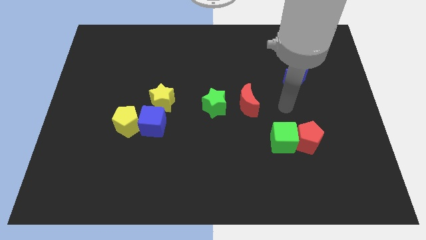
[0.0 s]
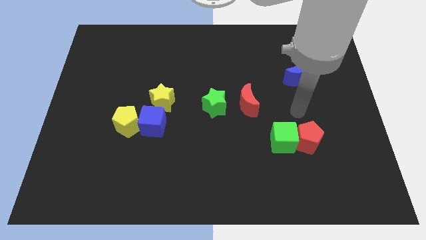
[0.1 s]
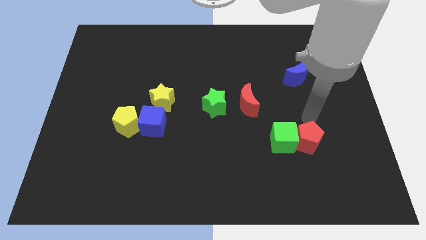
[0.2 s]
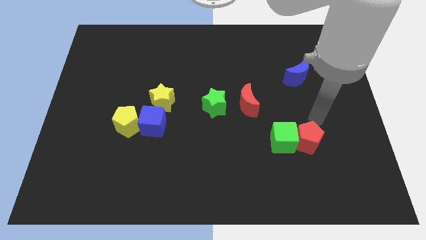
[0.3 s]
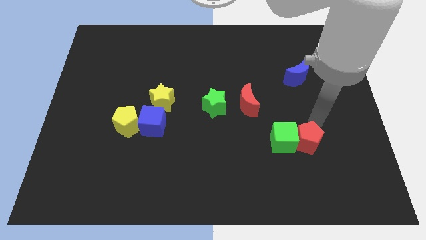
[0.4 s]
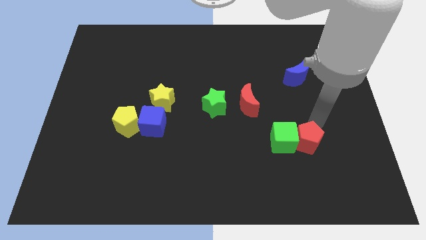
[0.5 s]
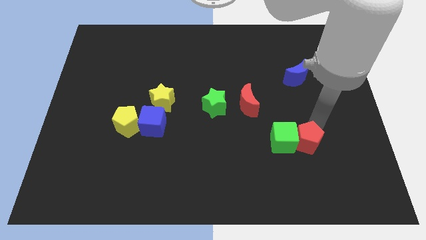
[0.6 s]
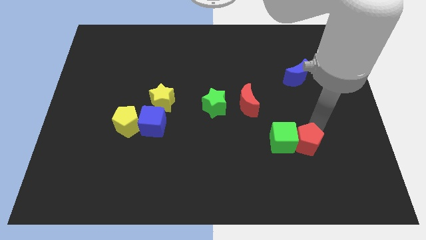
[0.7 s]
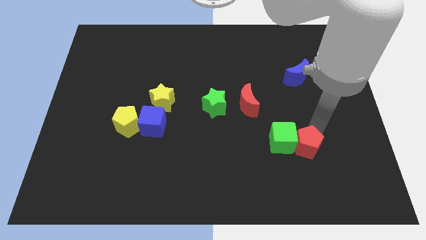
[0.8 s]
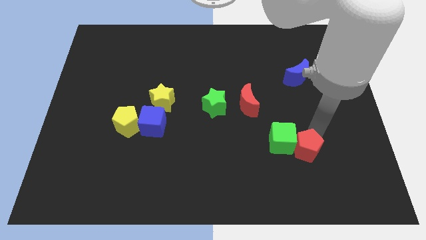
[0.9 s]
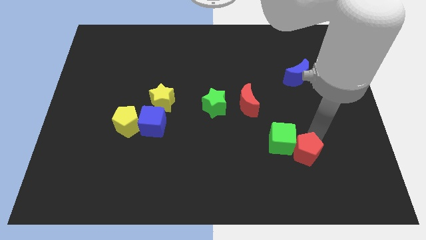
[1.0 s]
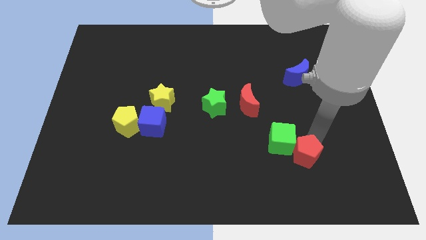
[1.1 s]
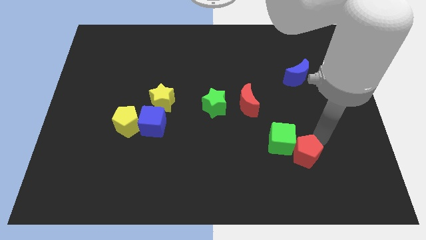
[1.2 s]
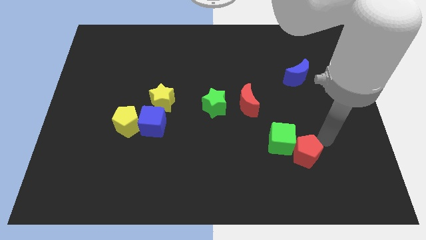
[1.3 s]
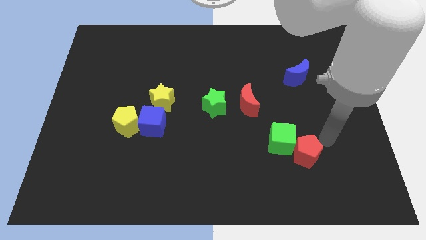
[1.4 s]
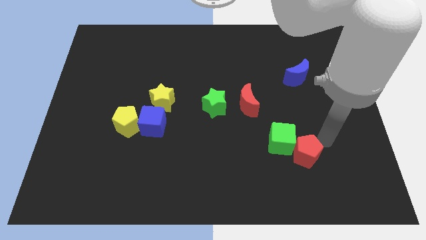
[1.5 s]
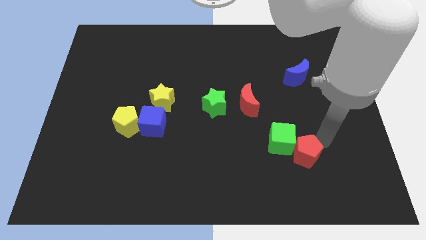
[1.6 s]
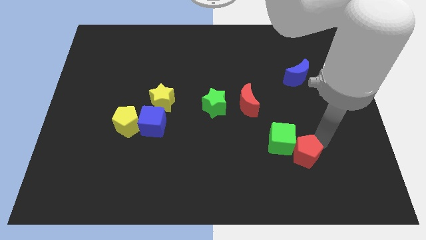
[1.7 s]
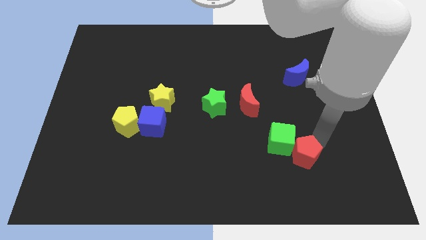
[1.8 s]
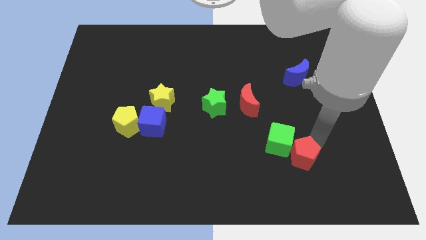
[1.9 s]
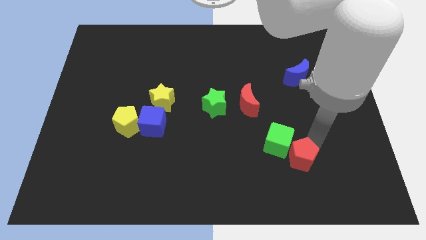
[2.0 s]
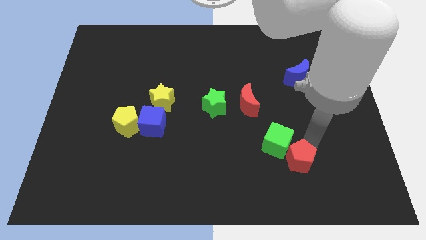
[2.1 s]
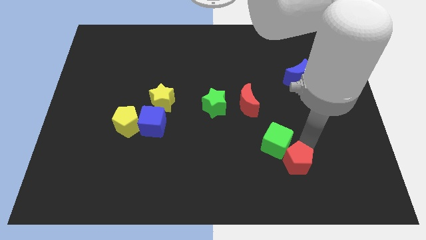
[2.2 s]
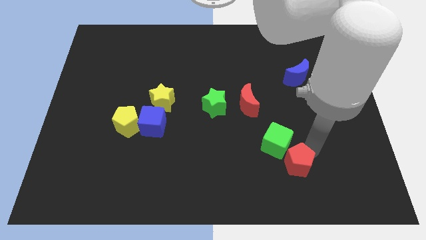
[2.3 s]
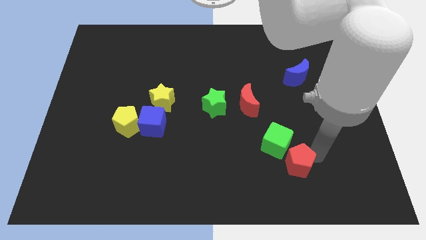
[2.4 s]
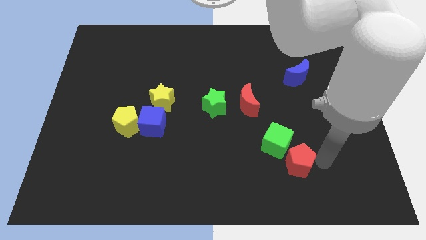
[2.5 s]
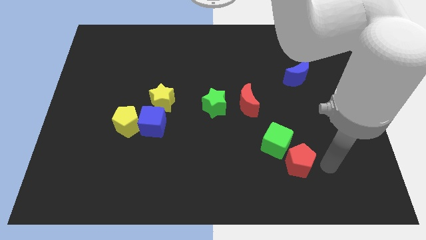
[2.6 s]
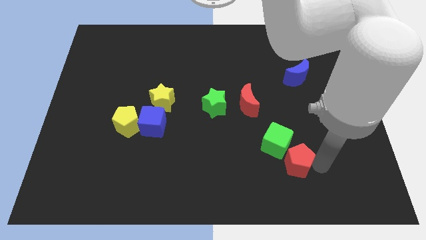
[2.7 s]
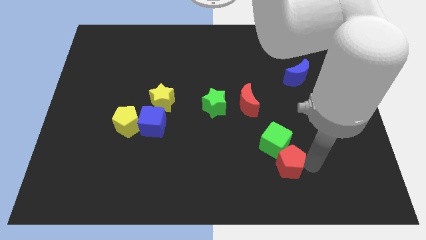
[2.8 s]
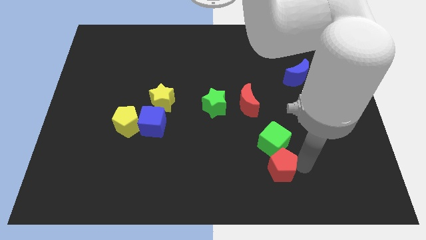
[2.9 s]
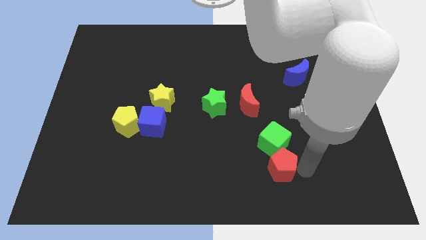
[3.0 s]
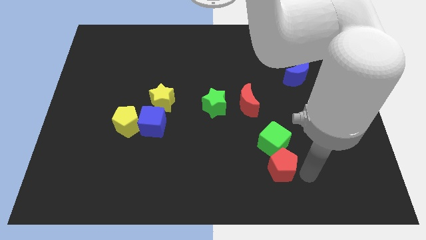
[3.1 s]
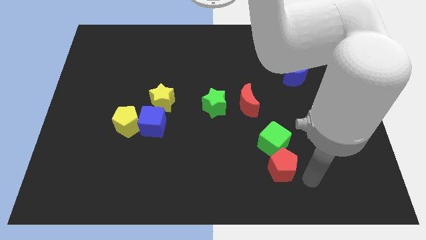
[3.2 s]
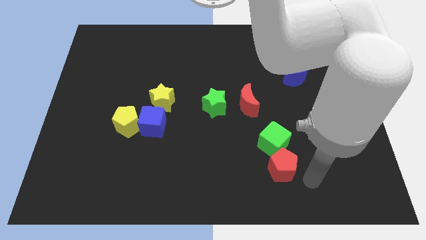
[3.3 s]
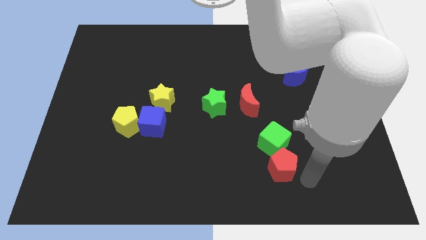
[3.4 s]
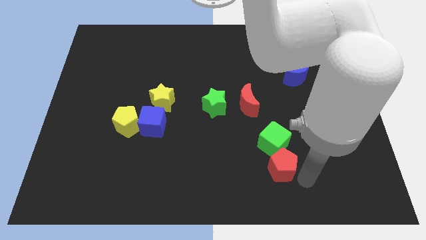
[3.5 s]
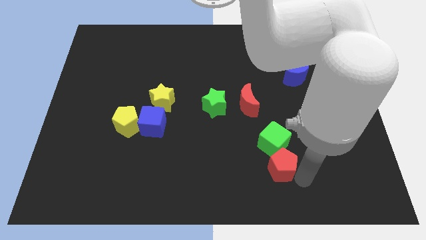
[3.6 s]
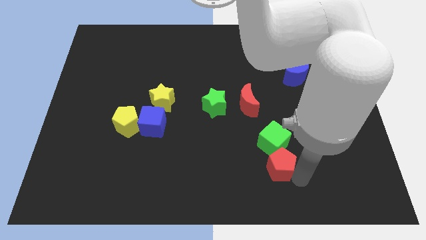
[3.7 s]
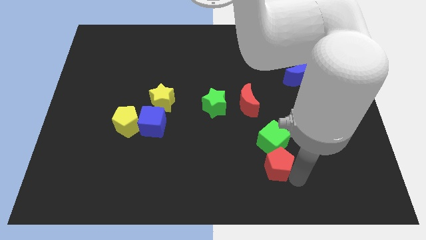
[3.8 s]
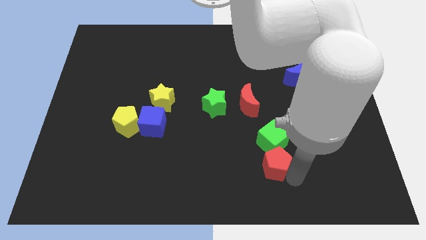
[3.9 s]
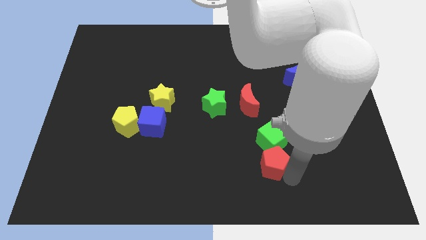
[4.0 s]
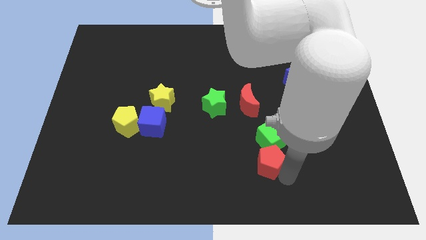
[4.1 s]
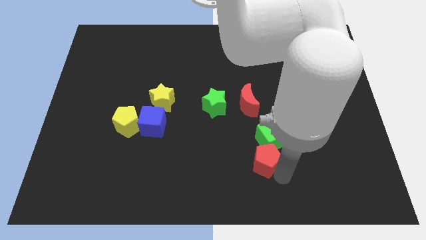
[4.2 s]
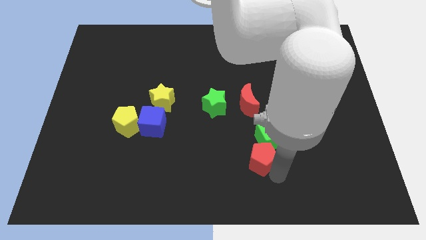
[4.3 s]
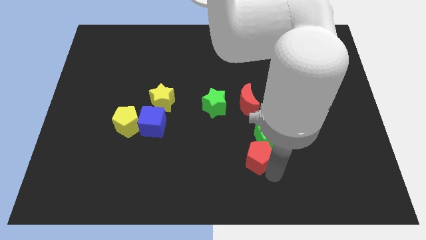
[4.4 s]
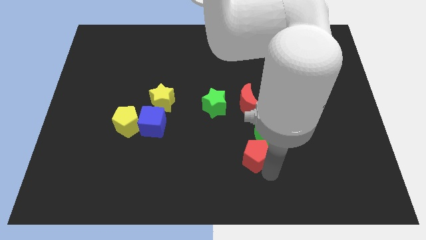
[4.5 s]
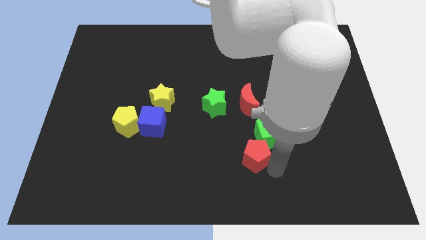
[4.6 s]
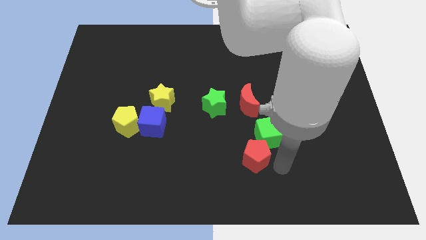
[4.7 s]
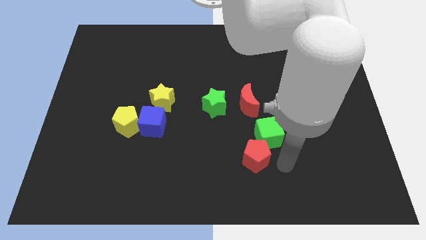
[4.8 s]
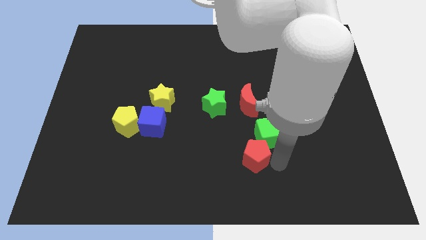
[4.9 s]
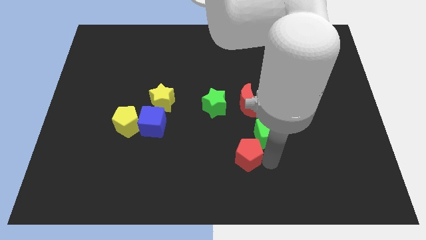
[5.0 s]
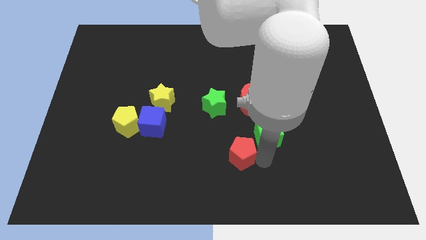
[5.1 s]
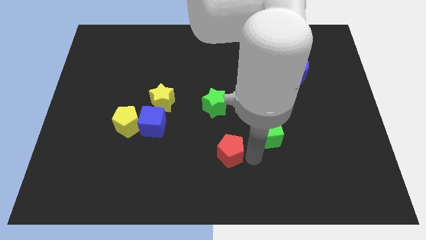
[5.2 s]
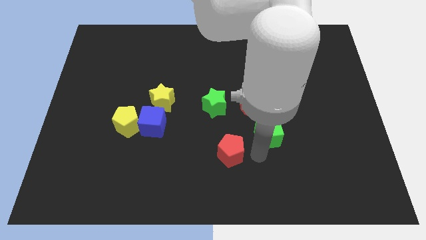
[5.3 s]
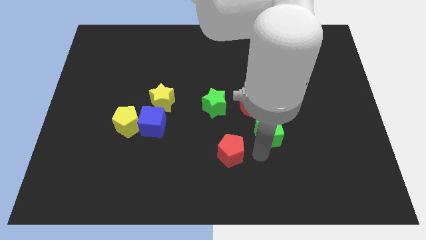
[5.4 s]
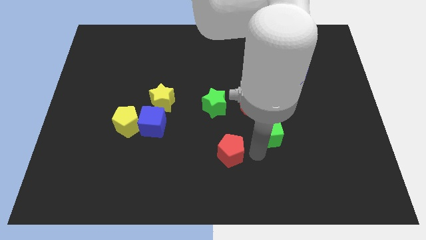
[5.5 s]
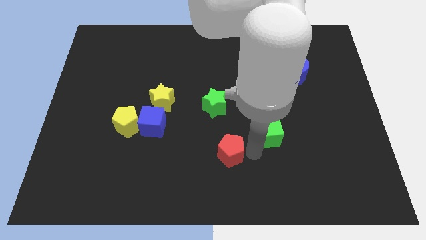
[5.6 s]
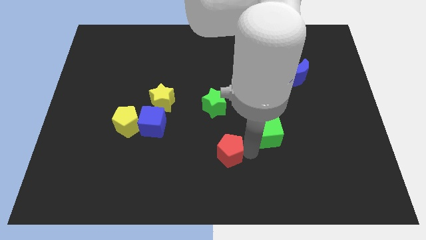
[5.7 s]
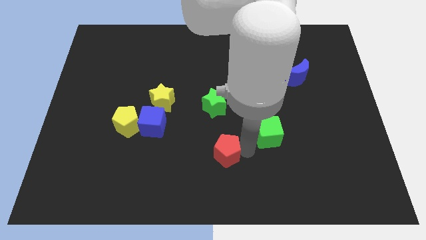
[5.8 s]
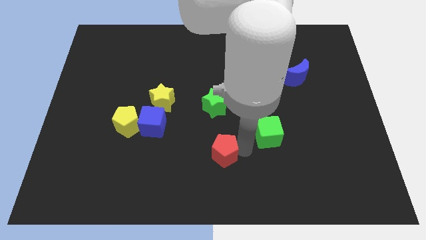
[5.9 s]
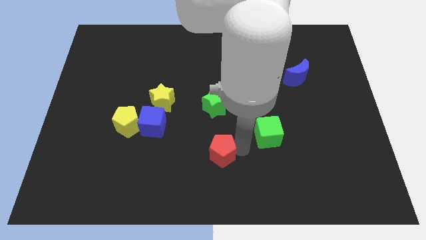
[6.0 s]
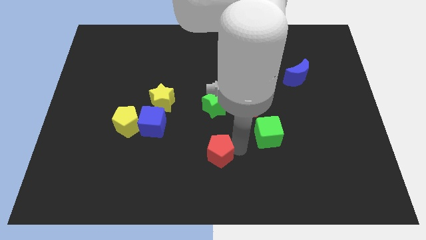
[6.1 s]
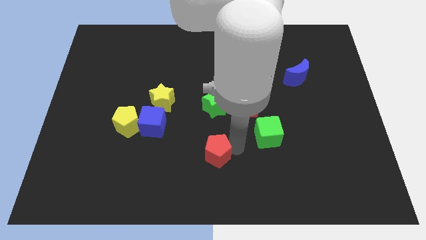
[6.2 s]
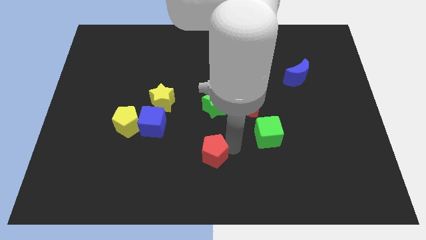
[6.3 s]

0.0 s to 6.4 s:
push the red pentagon left

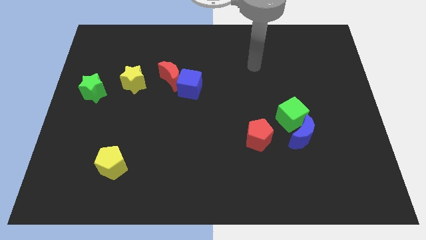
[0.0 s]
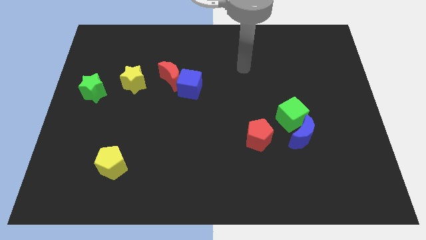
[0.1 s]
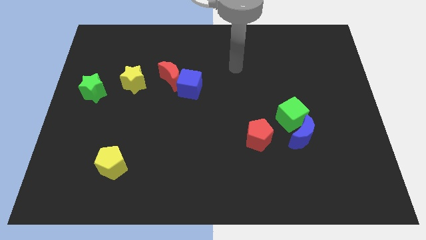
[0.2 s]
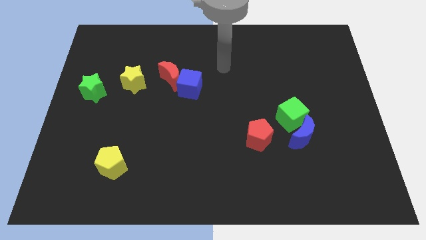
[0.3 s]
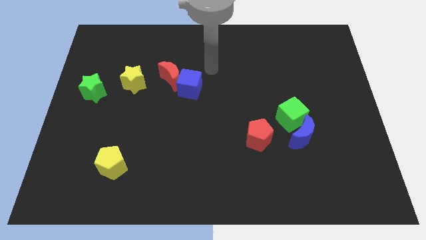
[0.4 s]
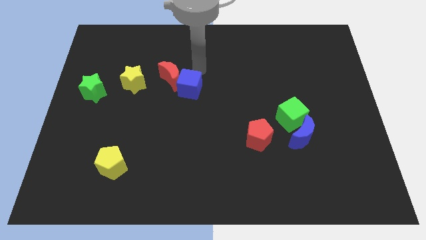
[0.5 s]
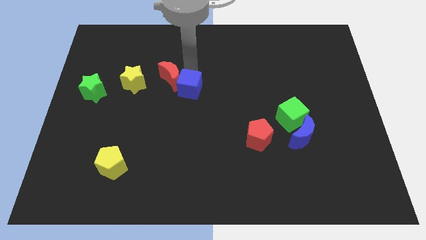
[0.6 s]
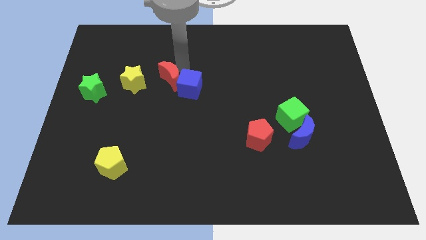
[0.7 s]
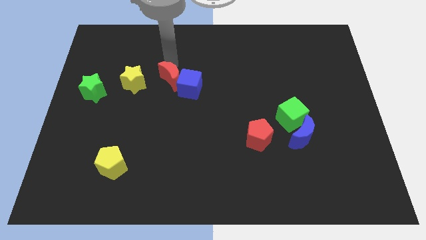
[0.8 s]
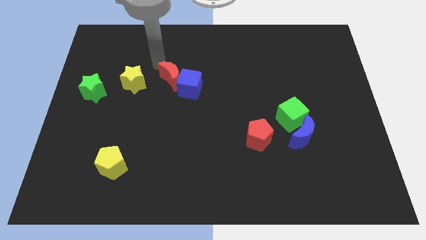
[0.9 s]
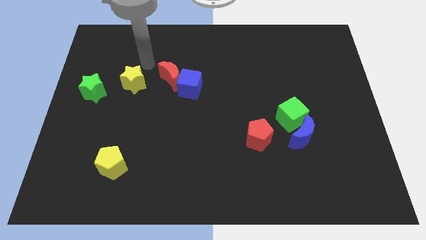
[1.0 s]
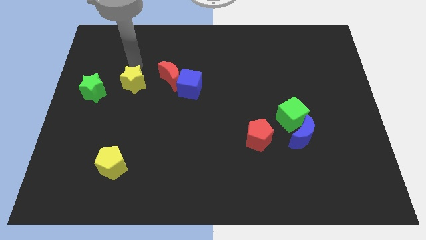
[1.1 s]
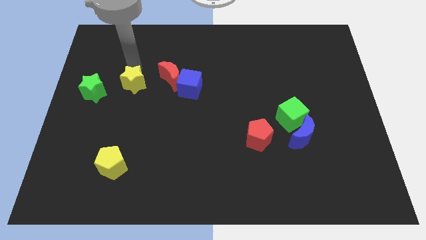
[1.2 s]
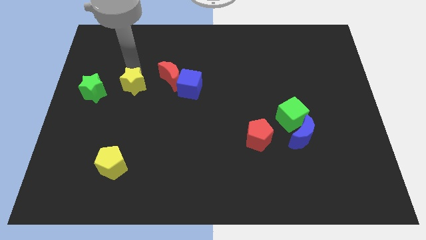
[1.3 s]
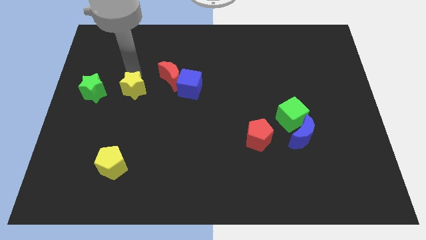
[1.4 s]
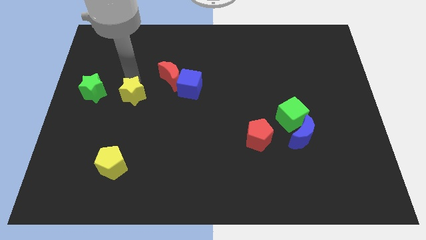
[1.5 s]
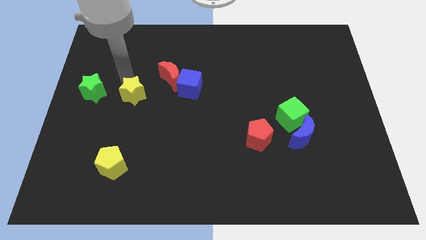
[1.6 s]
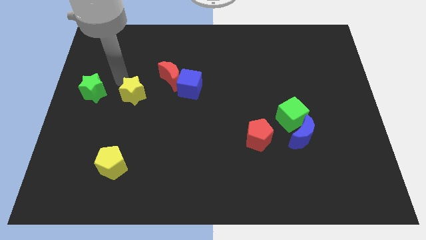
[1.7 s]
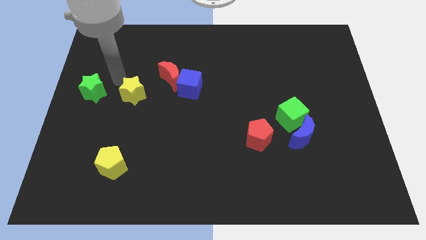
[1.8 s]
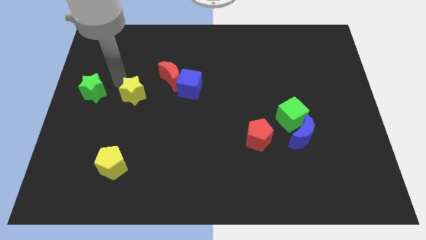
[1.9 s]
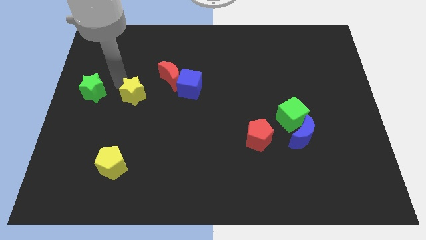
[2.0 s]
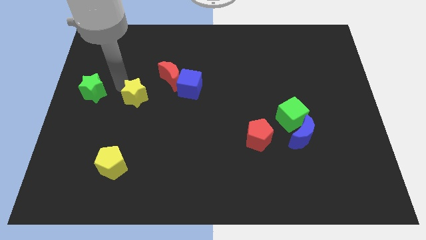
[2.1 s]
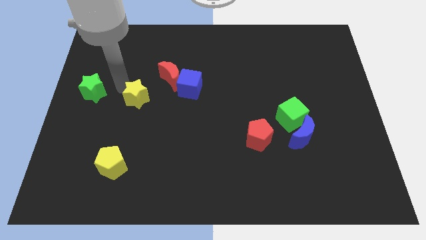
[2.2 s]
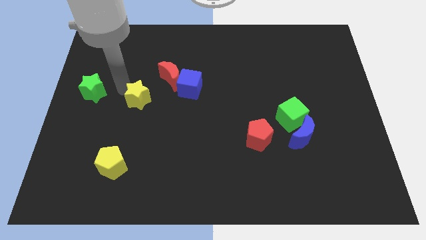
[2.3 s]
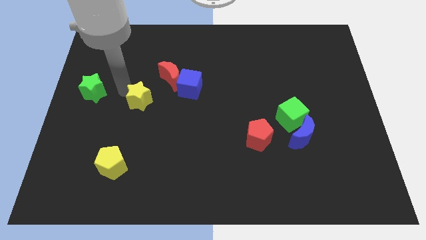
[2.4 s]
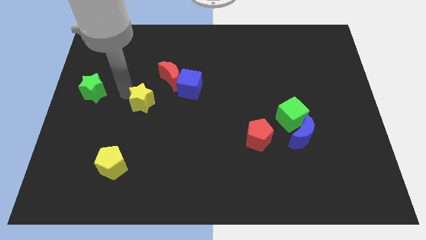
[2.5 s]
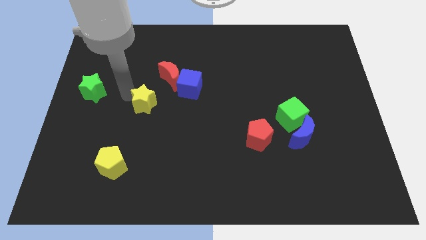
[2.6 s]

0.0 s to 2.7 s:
move the yellow star down and right diagonally a little bit
